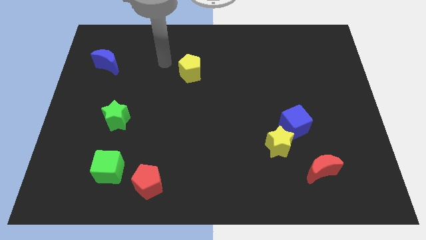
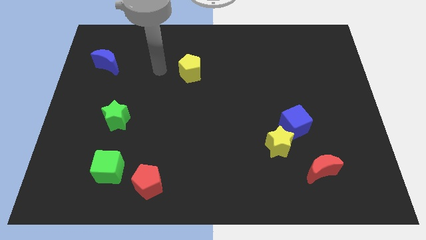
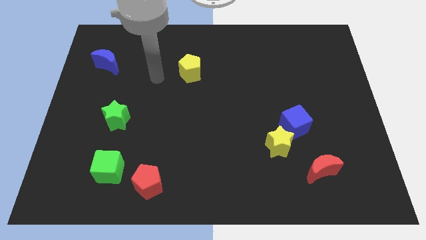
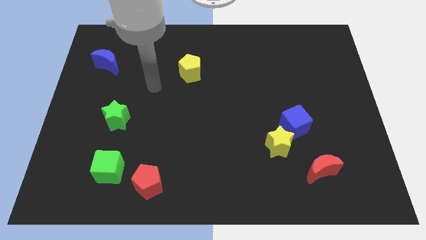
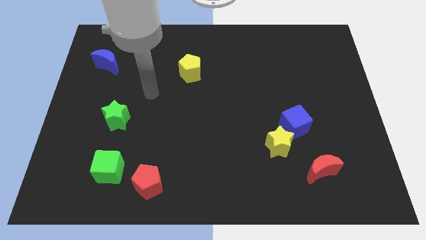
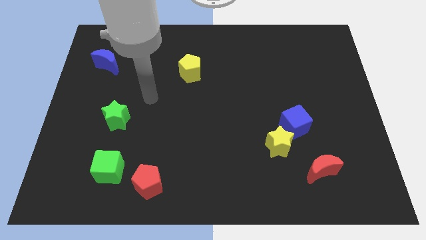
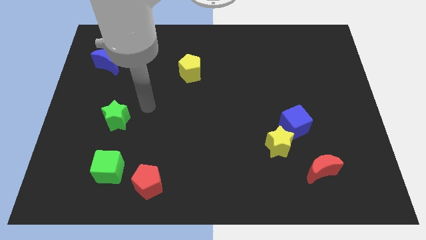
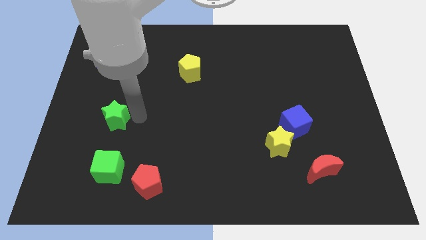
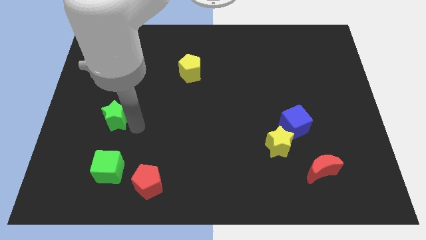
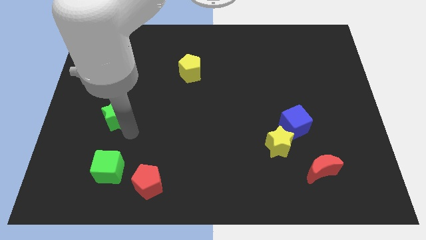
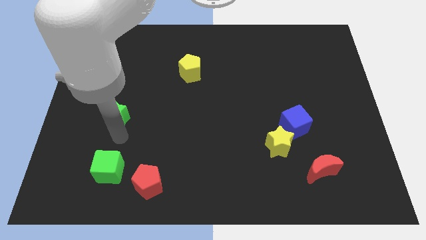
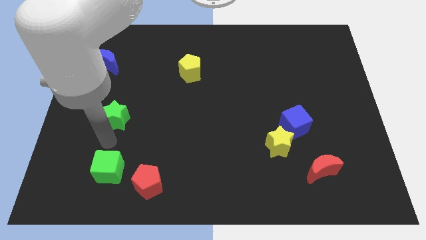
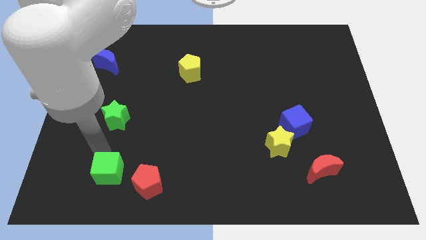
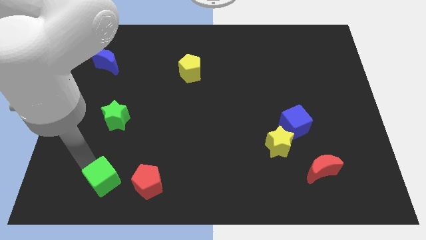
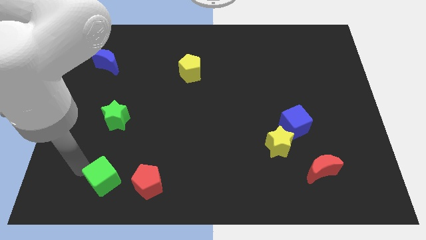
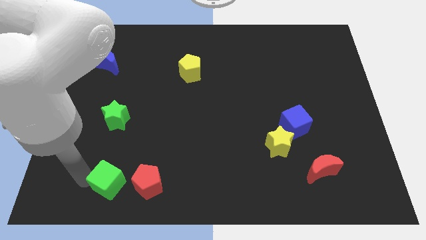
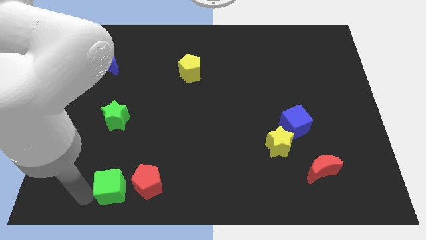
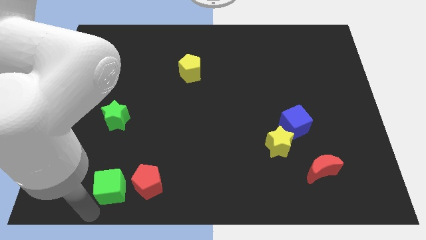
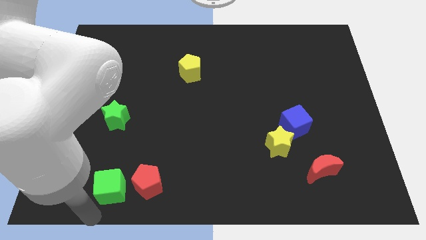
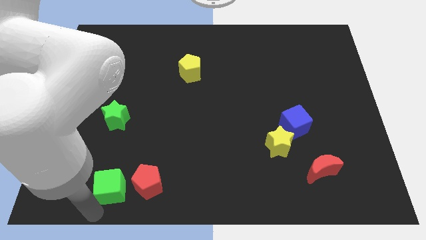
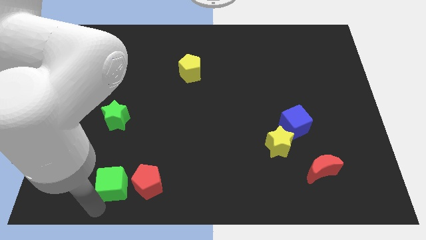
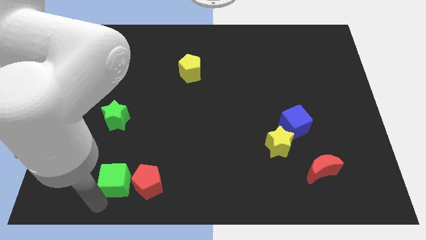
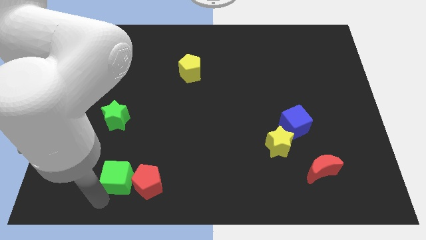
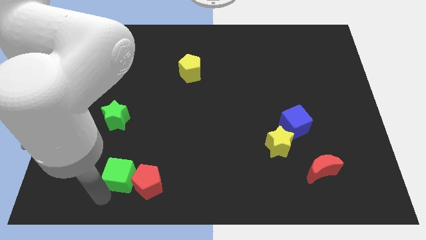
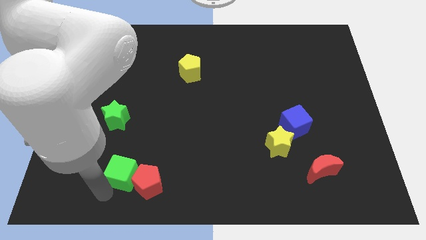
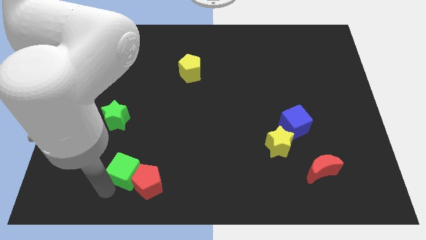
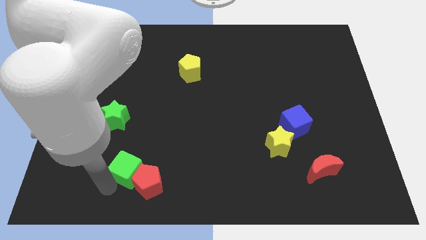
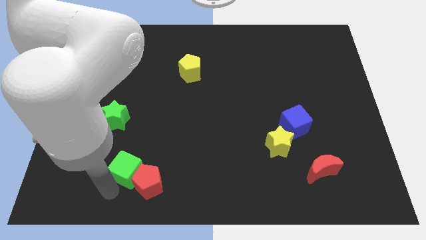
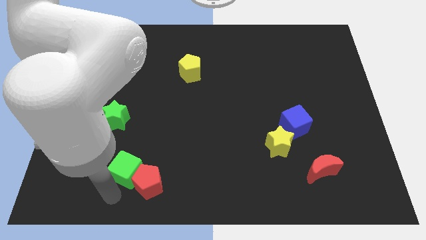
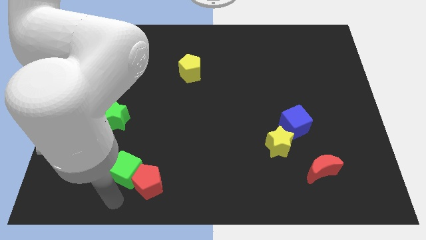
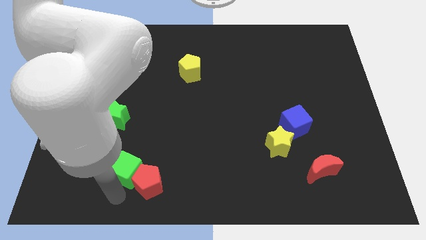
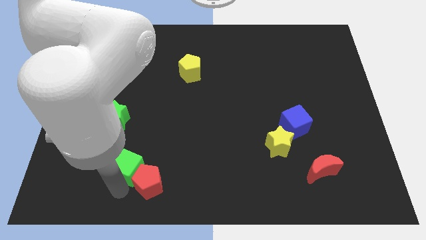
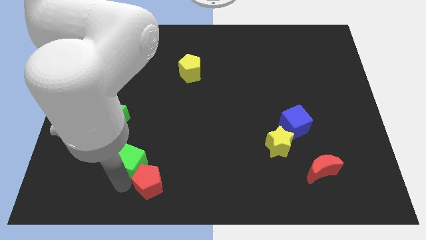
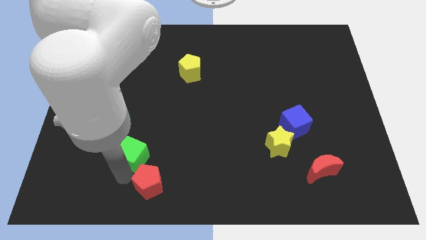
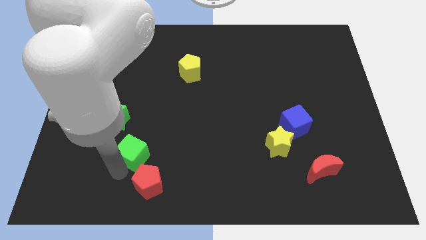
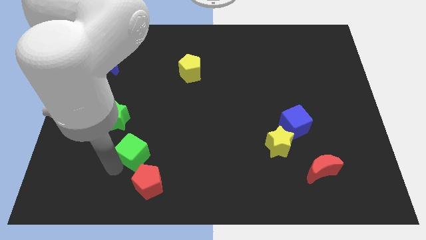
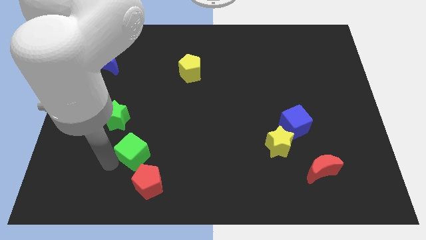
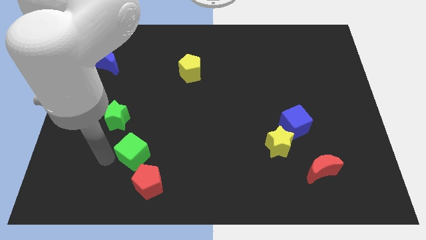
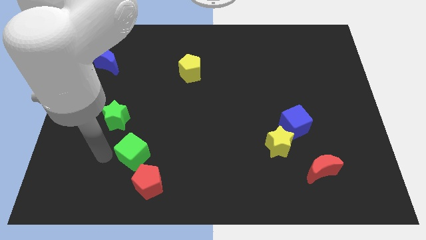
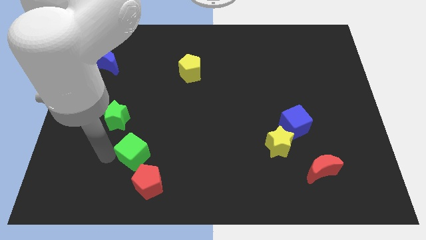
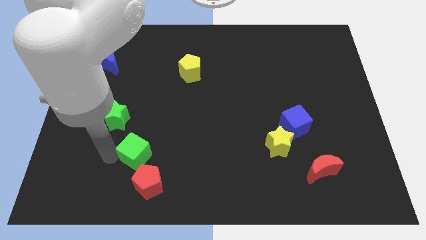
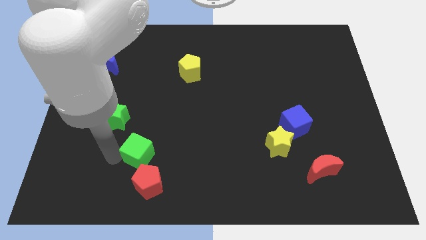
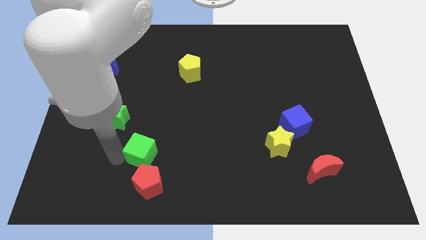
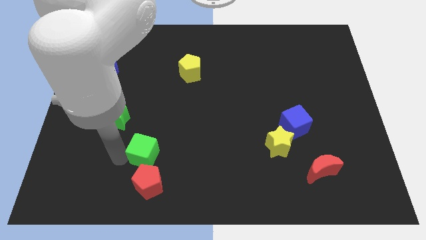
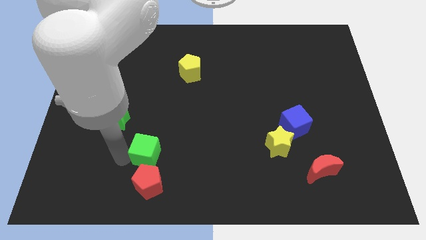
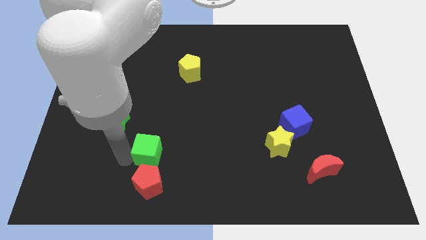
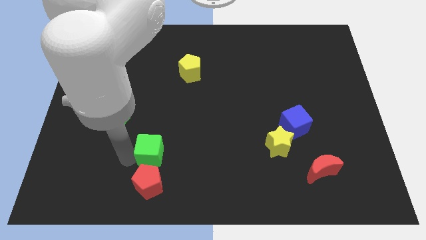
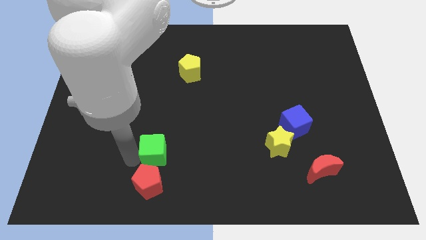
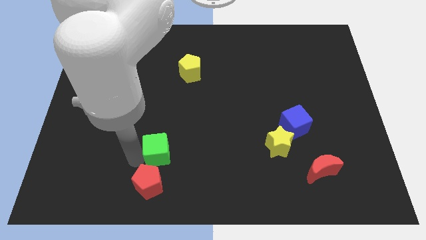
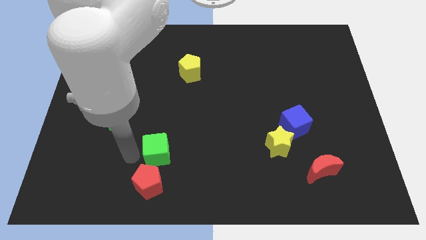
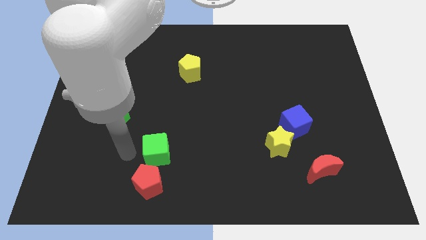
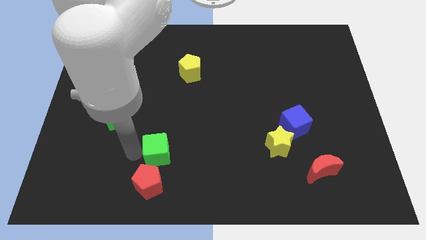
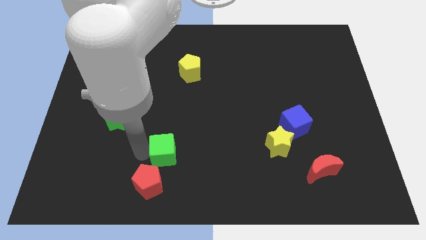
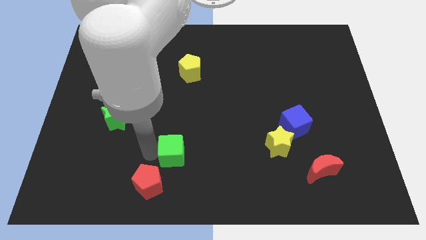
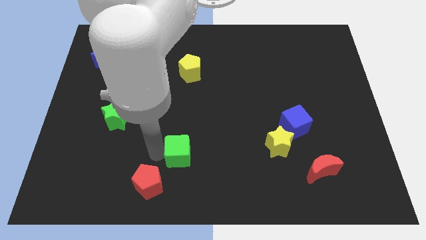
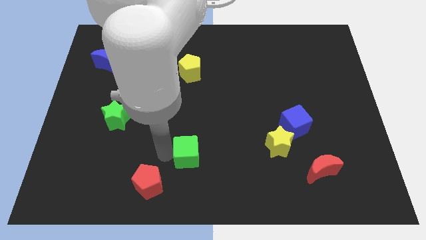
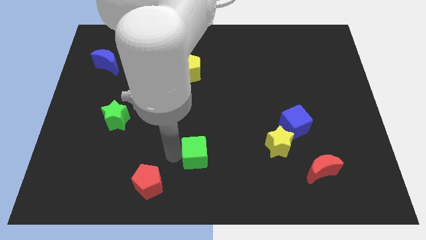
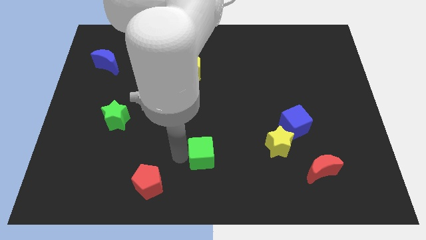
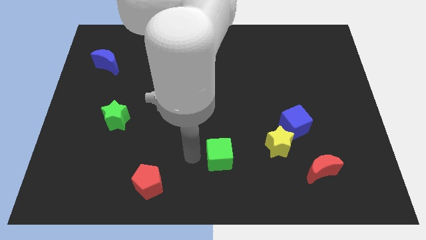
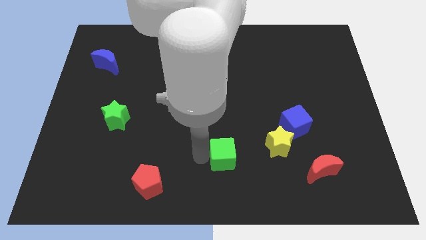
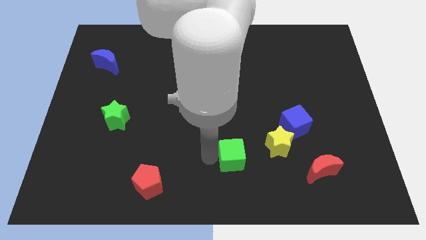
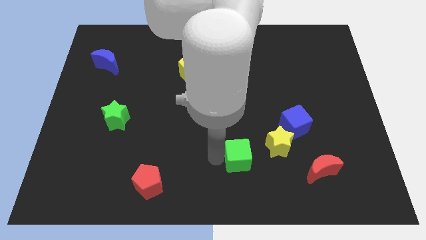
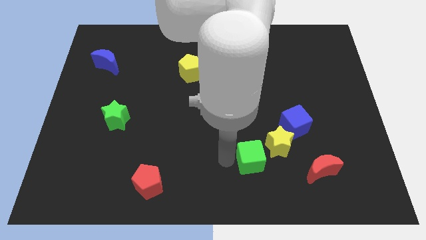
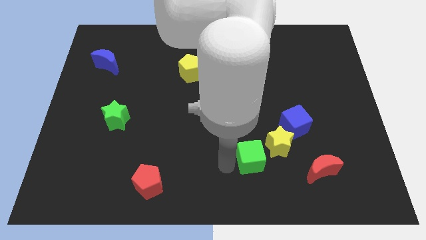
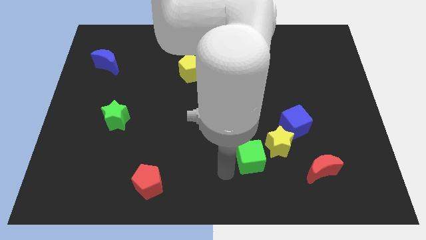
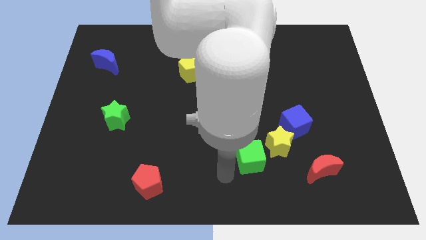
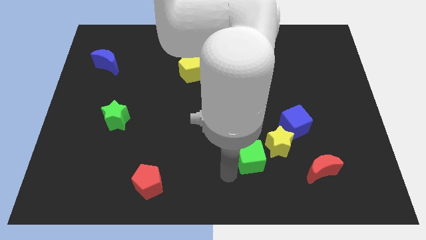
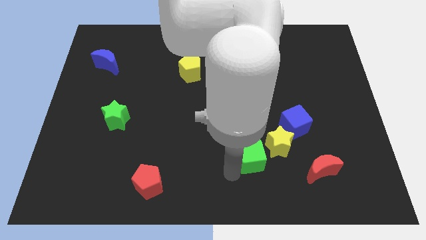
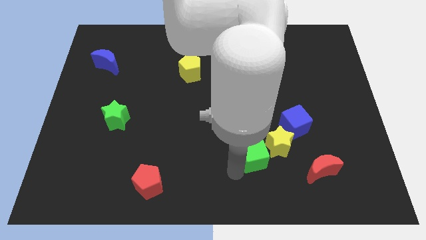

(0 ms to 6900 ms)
move the green cube to the bottom left of the blue cube
